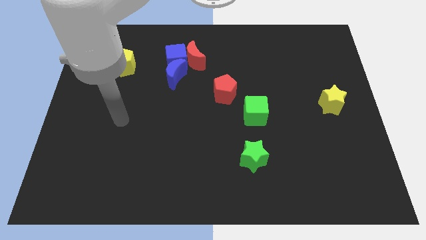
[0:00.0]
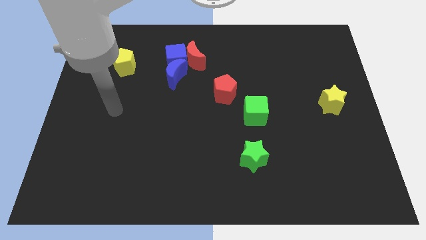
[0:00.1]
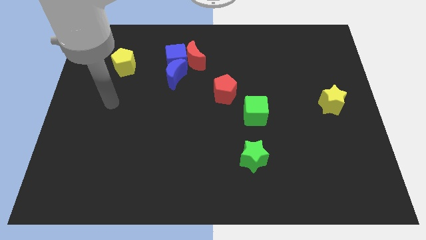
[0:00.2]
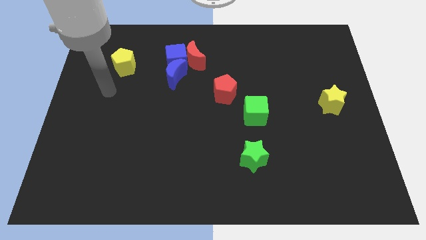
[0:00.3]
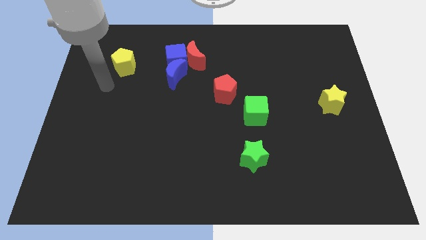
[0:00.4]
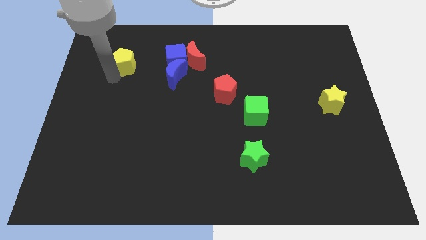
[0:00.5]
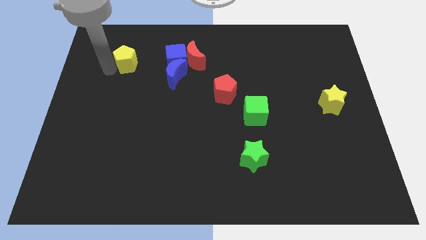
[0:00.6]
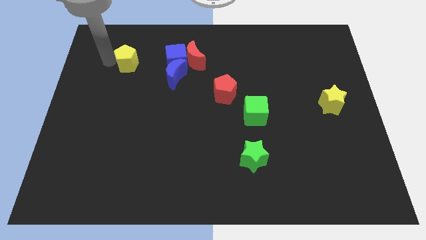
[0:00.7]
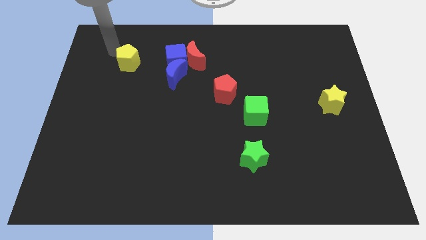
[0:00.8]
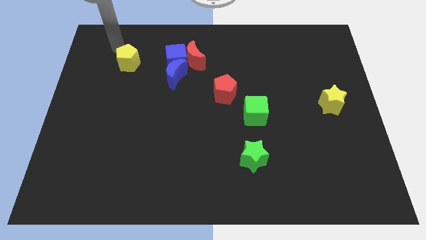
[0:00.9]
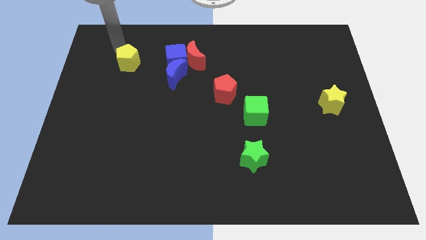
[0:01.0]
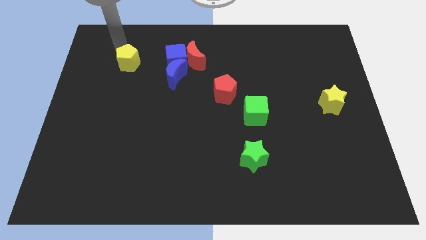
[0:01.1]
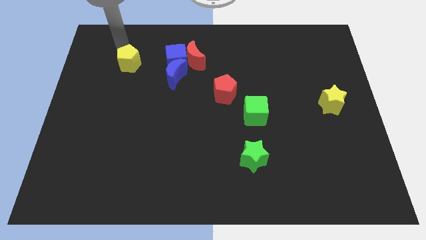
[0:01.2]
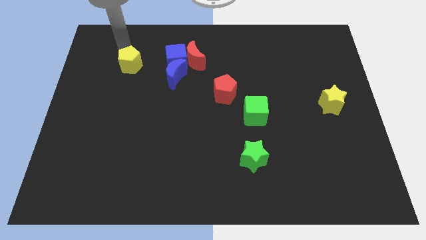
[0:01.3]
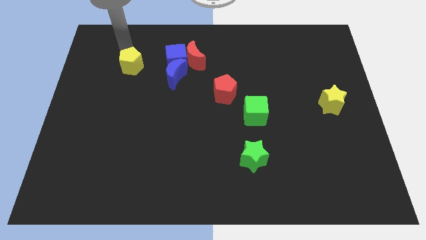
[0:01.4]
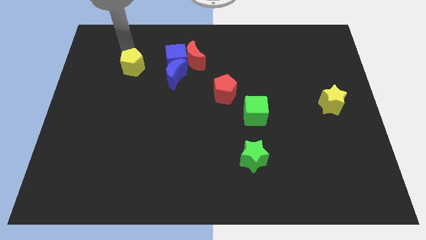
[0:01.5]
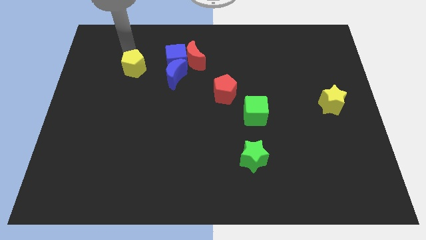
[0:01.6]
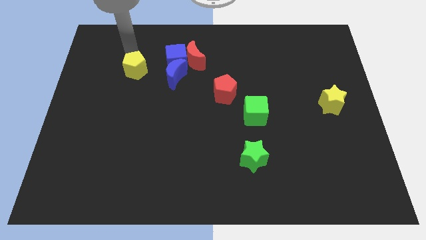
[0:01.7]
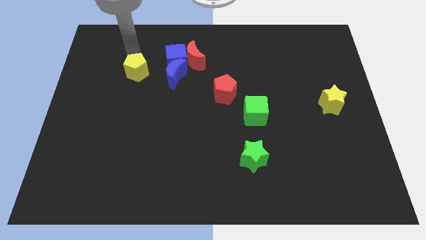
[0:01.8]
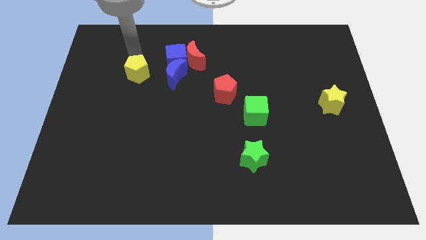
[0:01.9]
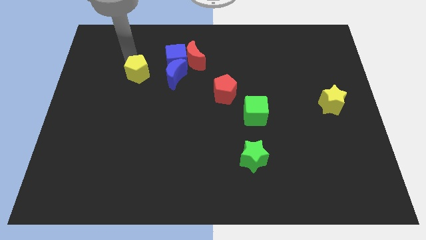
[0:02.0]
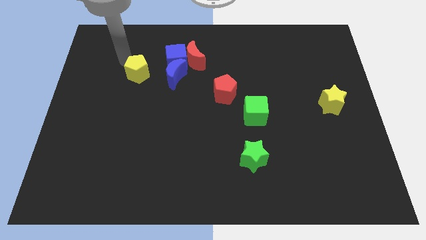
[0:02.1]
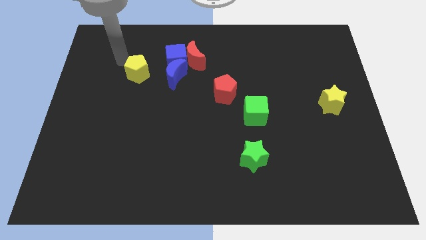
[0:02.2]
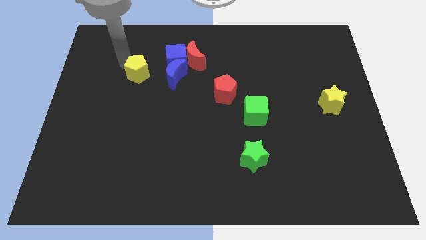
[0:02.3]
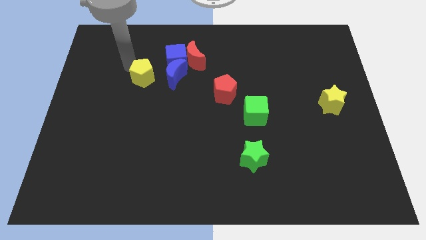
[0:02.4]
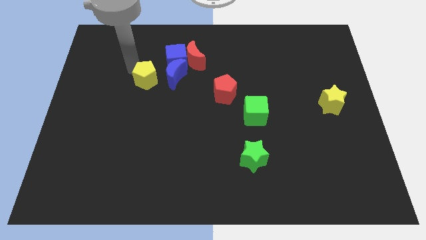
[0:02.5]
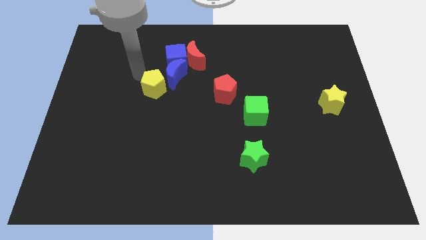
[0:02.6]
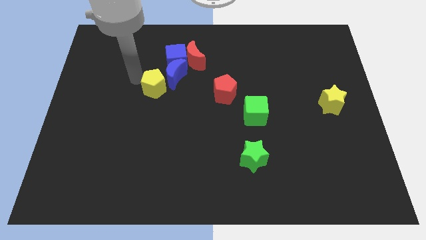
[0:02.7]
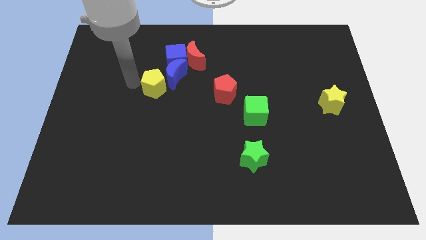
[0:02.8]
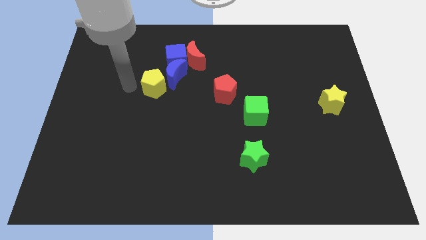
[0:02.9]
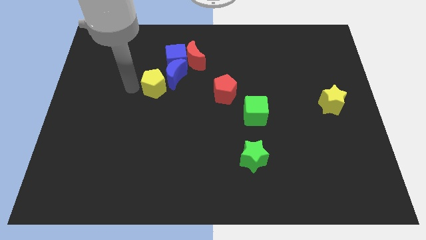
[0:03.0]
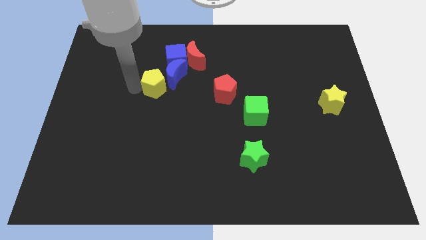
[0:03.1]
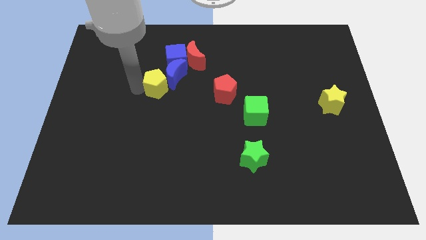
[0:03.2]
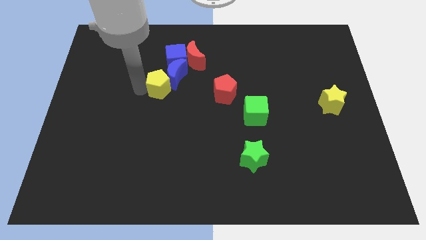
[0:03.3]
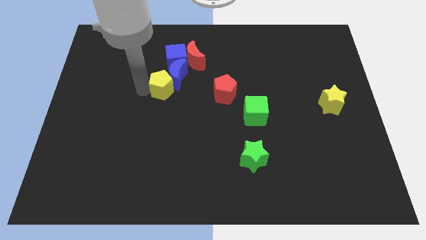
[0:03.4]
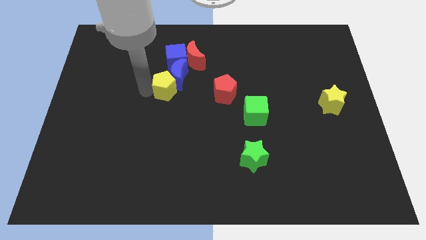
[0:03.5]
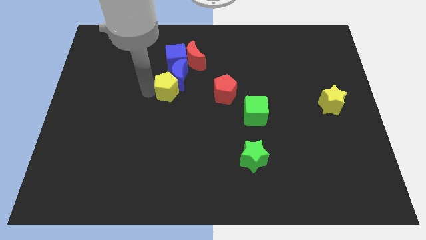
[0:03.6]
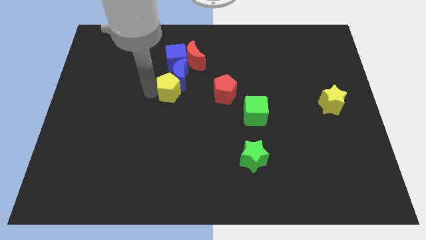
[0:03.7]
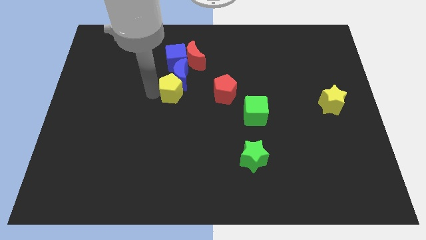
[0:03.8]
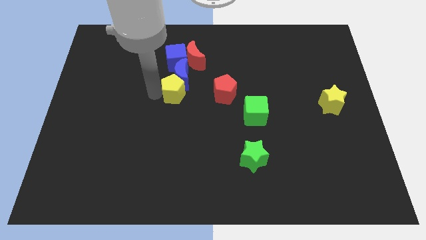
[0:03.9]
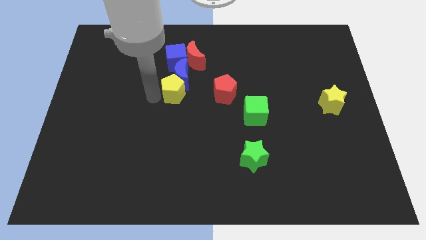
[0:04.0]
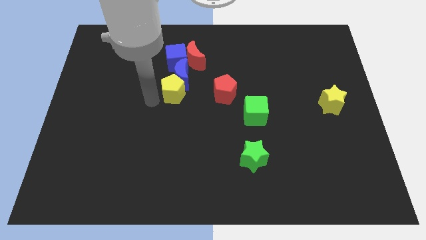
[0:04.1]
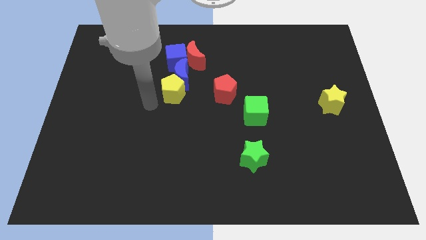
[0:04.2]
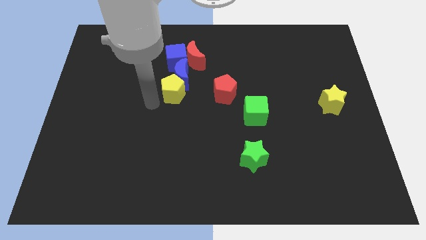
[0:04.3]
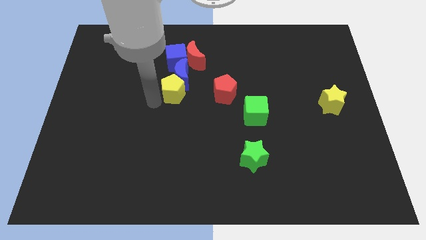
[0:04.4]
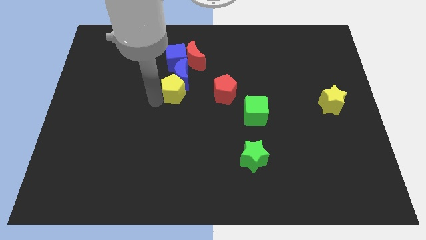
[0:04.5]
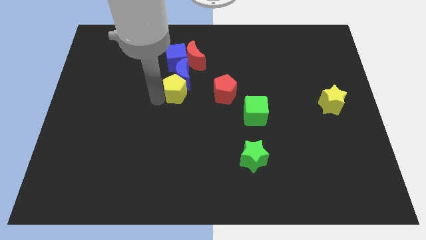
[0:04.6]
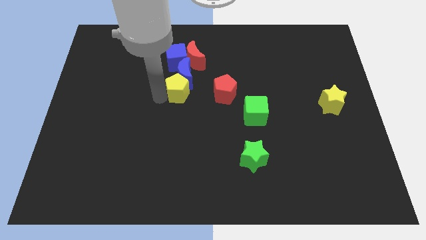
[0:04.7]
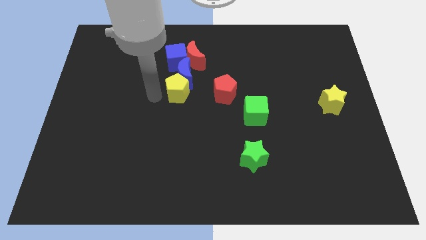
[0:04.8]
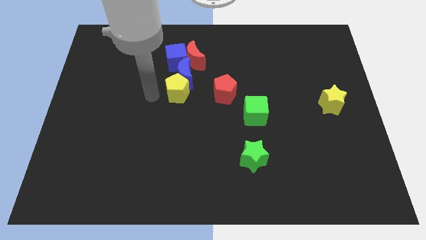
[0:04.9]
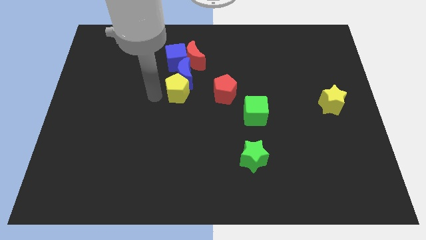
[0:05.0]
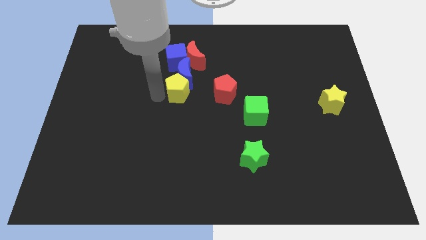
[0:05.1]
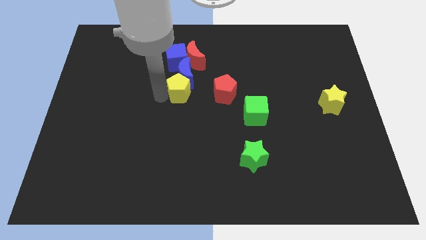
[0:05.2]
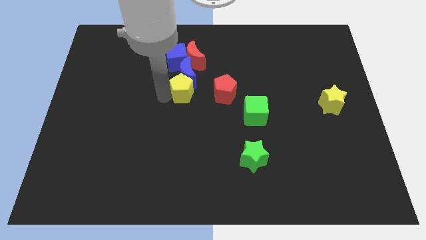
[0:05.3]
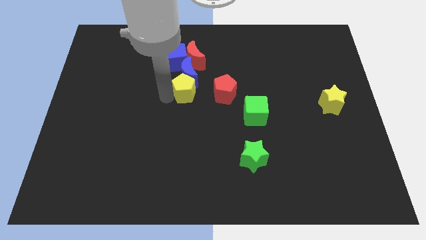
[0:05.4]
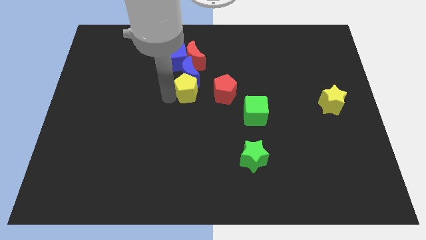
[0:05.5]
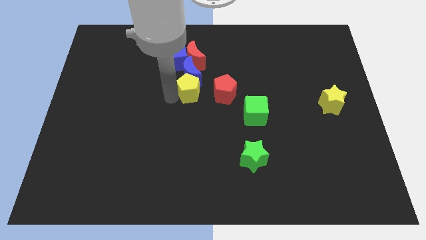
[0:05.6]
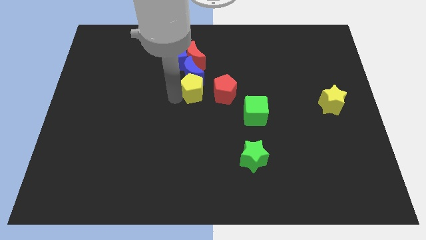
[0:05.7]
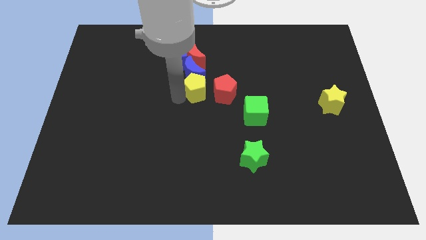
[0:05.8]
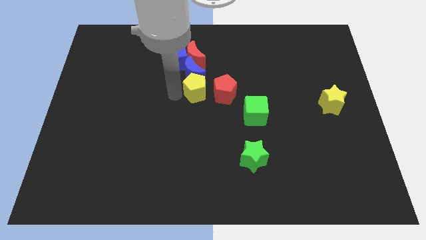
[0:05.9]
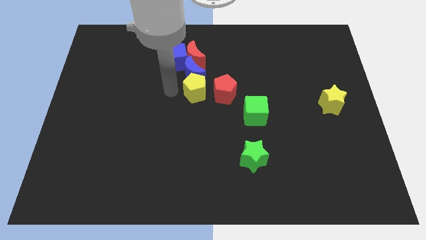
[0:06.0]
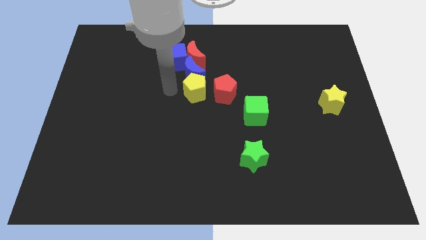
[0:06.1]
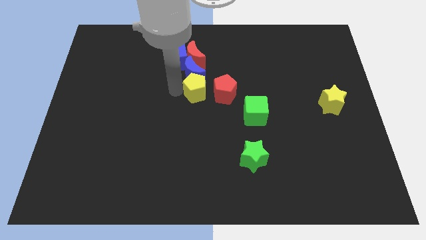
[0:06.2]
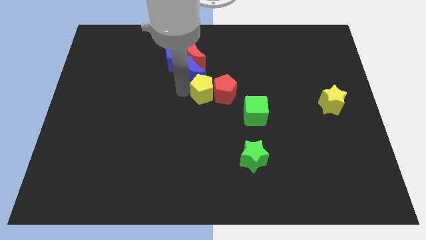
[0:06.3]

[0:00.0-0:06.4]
put the yellow pentagon towards the red pentagon

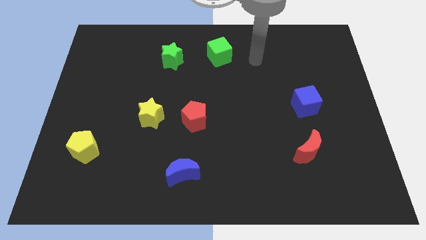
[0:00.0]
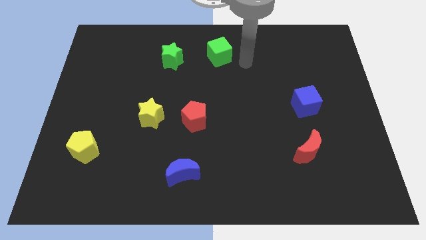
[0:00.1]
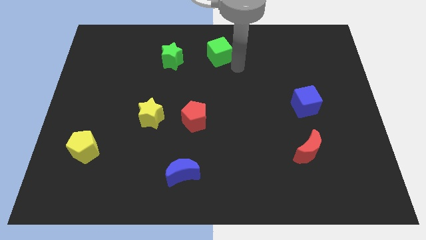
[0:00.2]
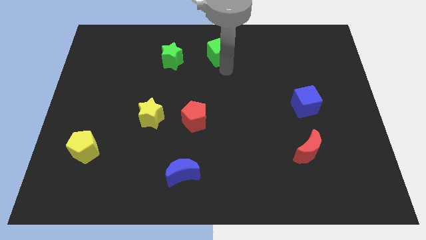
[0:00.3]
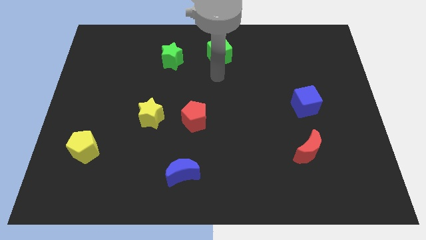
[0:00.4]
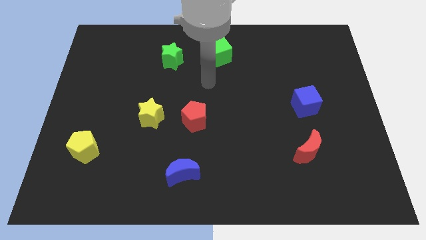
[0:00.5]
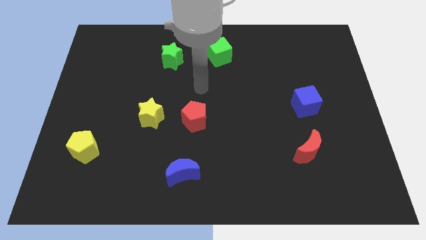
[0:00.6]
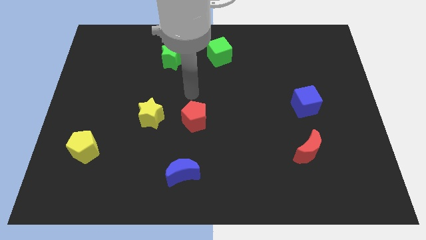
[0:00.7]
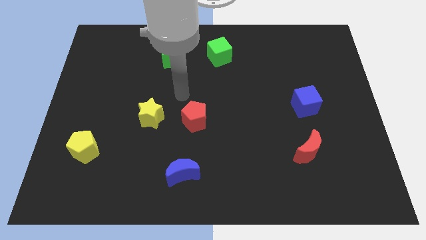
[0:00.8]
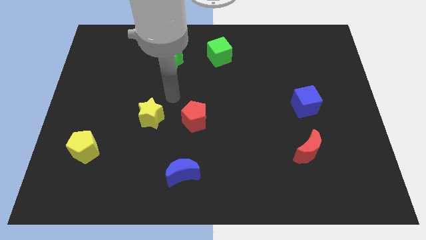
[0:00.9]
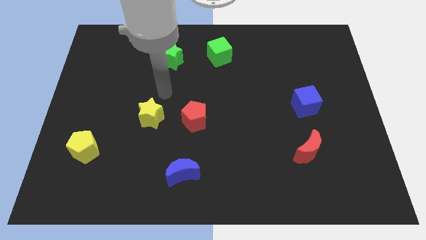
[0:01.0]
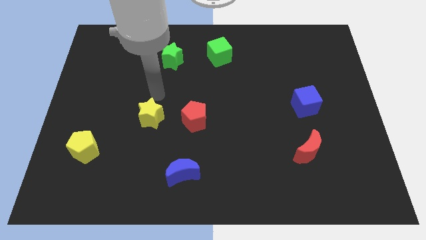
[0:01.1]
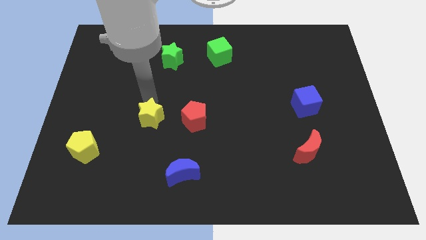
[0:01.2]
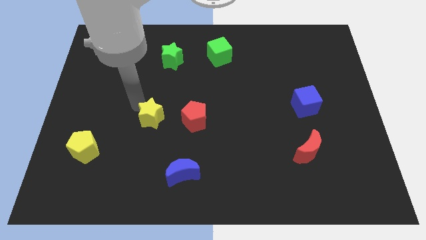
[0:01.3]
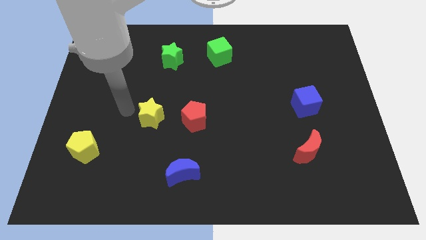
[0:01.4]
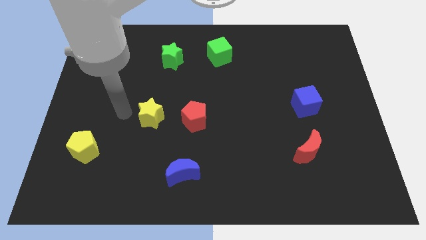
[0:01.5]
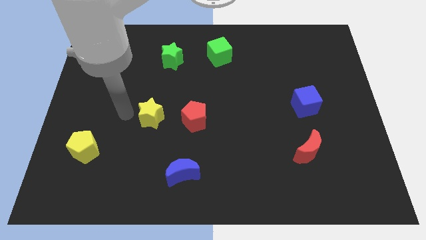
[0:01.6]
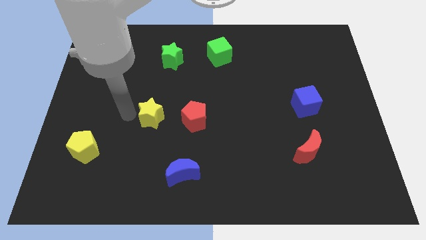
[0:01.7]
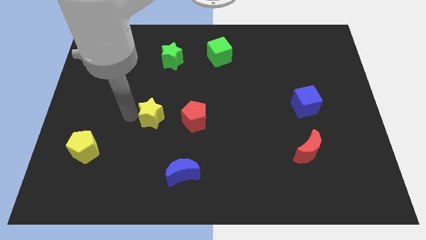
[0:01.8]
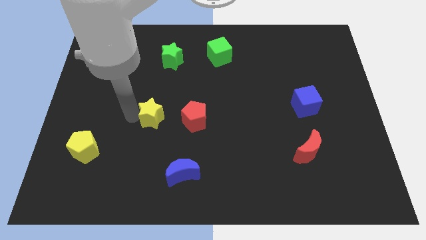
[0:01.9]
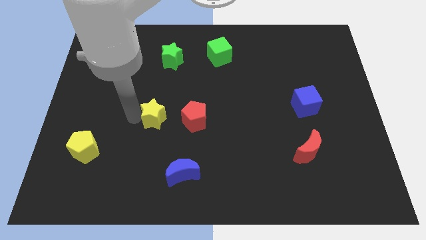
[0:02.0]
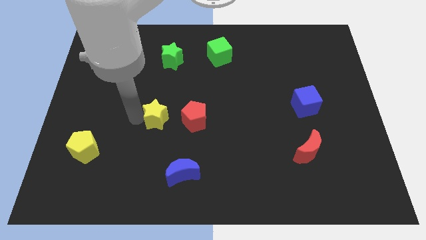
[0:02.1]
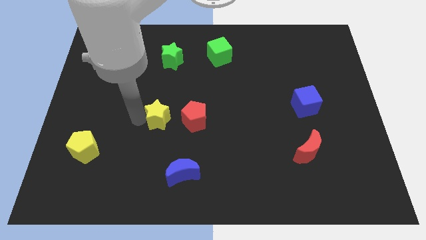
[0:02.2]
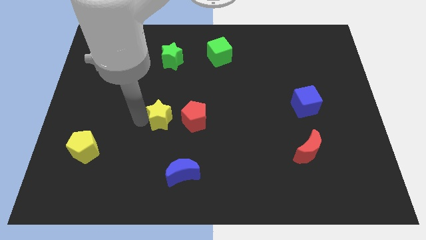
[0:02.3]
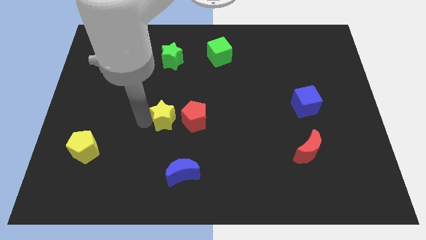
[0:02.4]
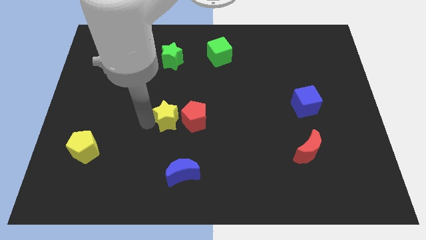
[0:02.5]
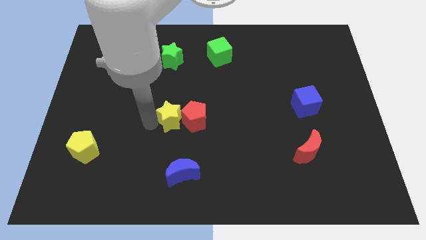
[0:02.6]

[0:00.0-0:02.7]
put the yellow star to the red pentagon
